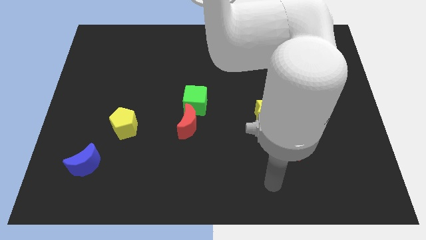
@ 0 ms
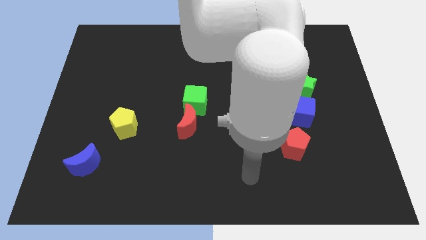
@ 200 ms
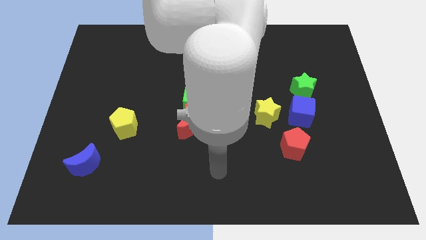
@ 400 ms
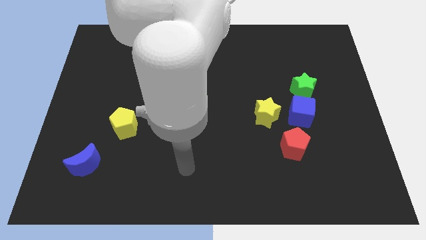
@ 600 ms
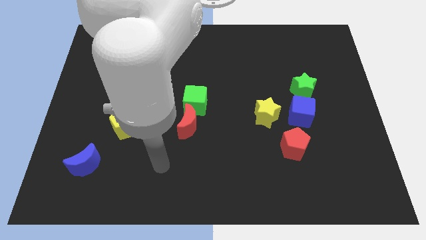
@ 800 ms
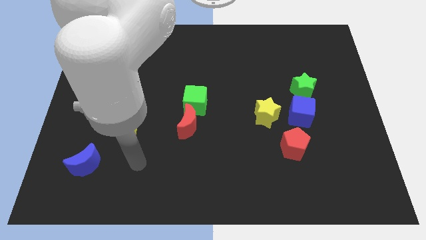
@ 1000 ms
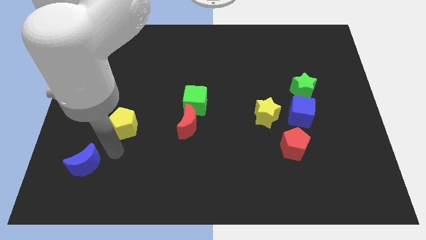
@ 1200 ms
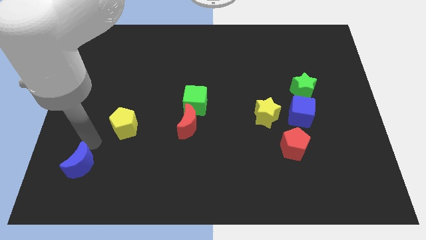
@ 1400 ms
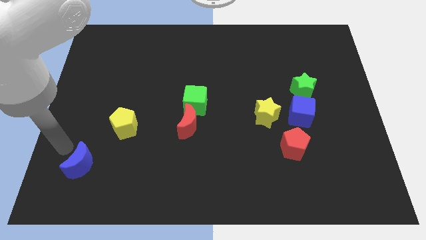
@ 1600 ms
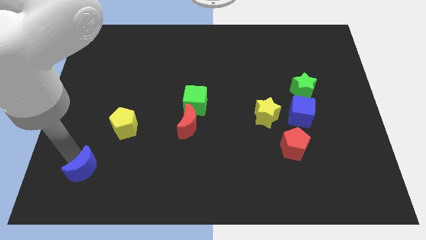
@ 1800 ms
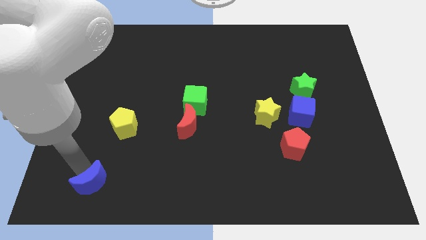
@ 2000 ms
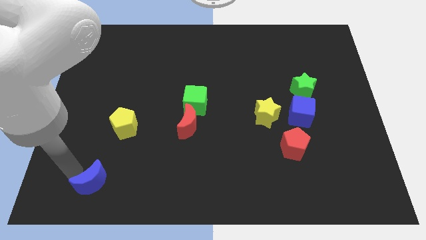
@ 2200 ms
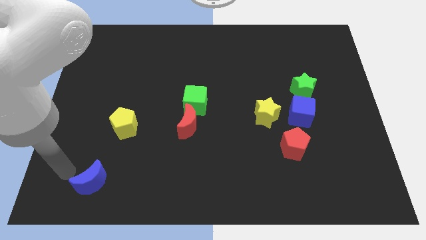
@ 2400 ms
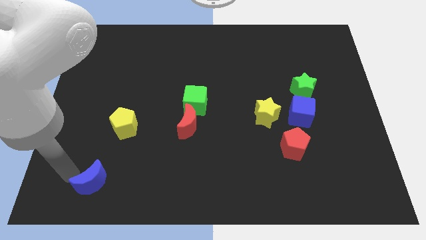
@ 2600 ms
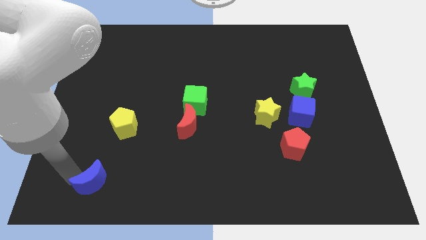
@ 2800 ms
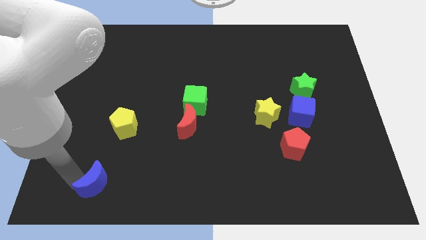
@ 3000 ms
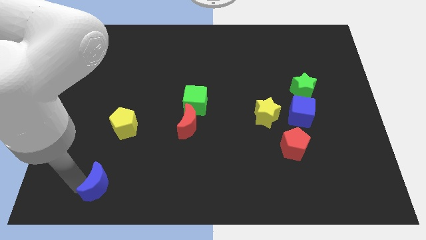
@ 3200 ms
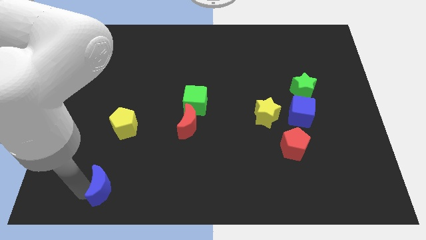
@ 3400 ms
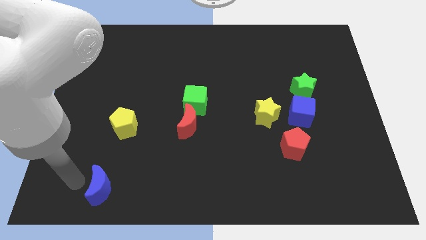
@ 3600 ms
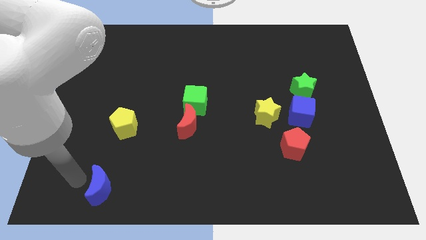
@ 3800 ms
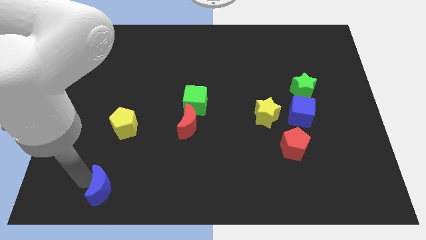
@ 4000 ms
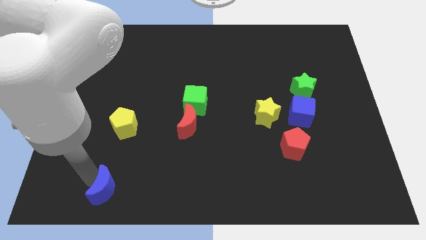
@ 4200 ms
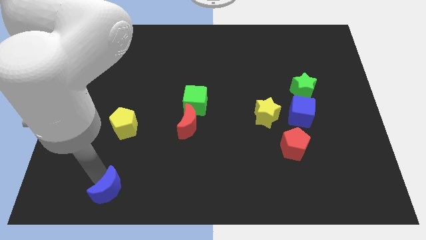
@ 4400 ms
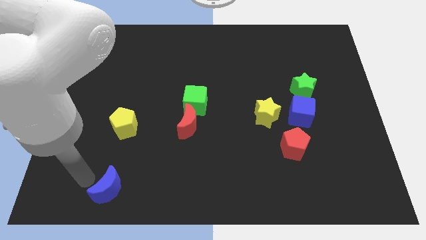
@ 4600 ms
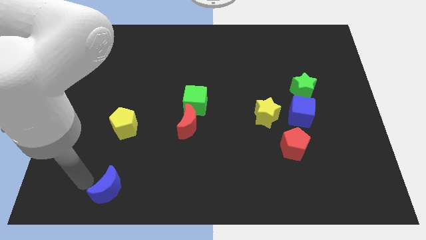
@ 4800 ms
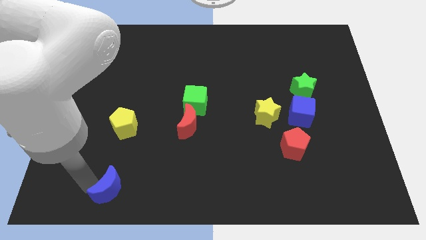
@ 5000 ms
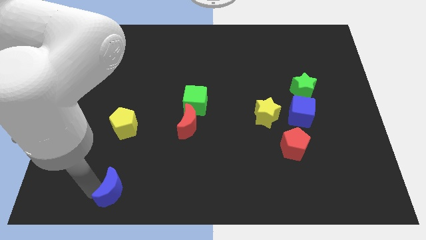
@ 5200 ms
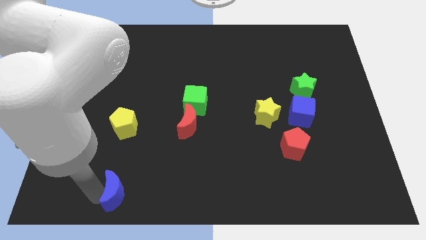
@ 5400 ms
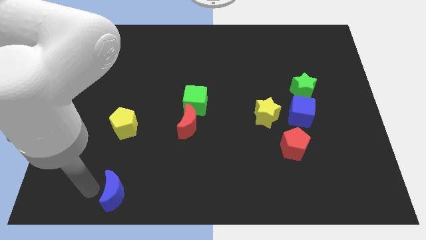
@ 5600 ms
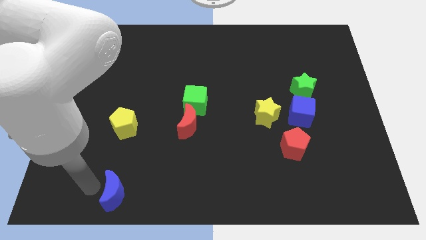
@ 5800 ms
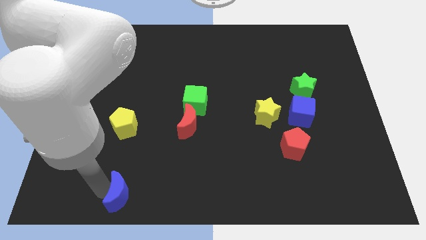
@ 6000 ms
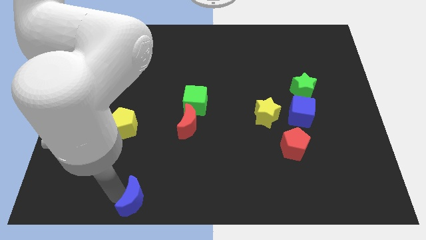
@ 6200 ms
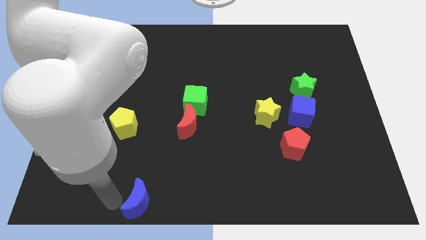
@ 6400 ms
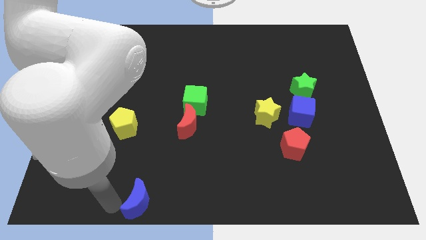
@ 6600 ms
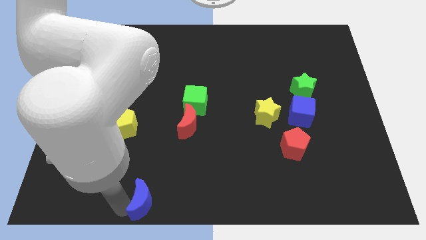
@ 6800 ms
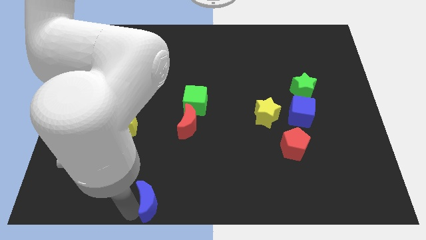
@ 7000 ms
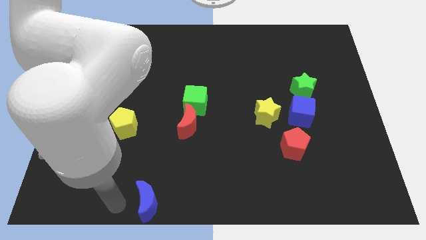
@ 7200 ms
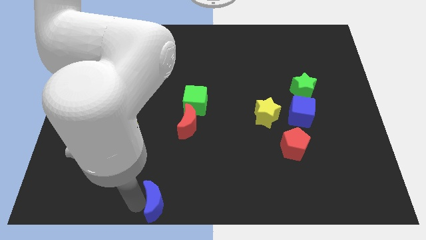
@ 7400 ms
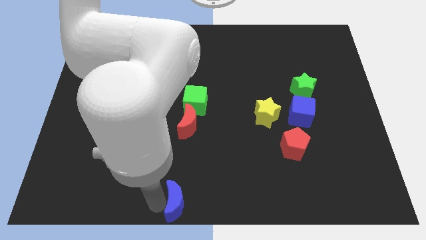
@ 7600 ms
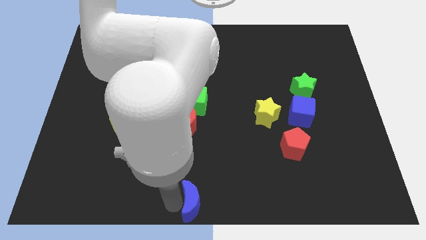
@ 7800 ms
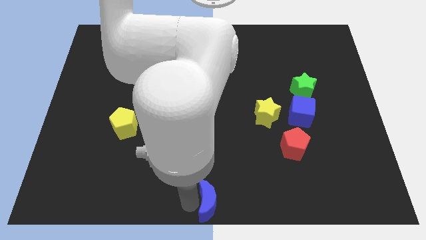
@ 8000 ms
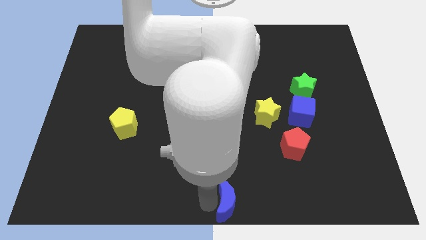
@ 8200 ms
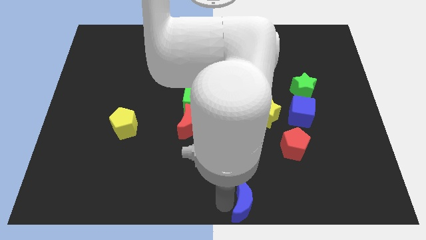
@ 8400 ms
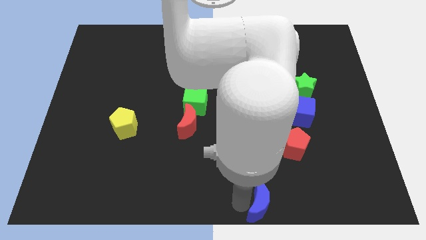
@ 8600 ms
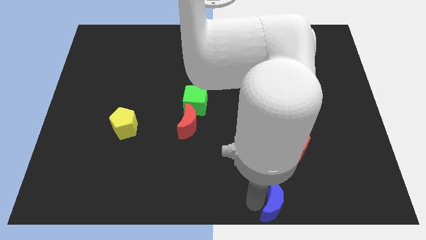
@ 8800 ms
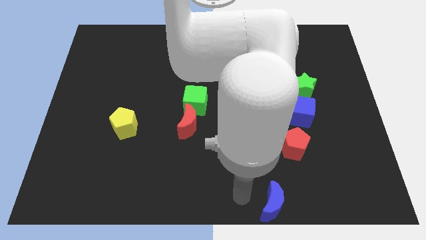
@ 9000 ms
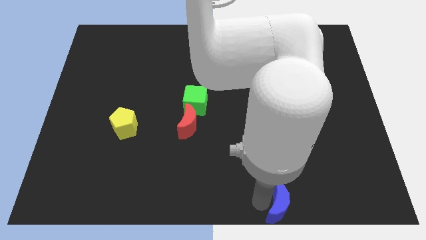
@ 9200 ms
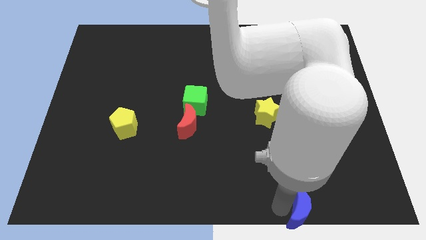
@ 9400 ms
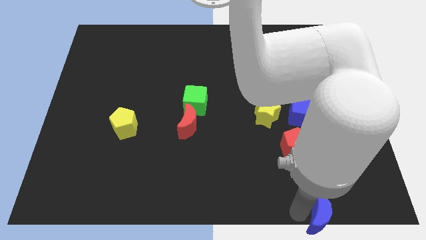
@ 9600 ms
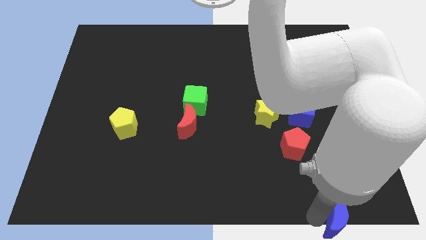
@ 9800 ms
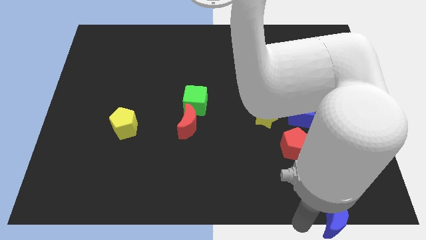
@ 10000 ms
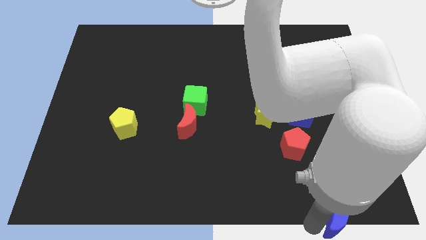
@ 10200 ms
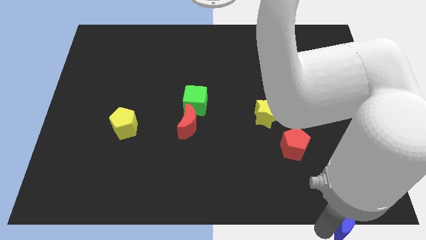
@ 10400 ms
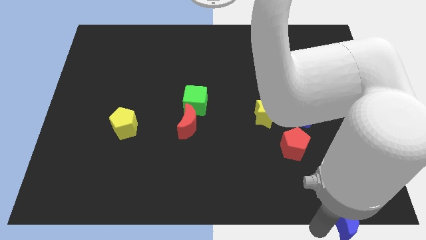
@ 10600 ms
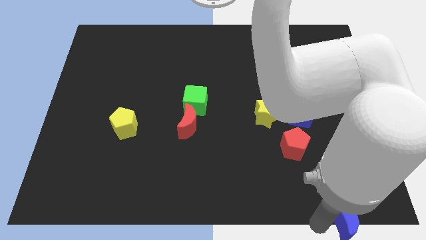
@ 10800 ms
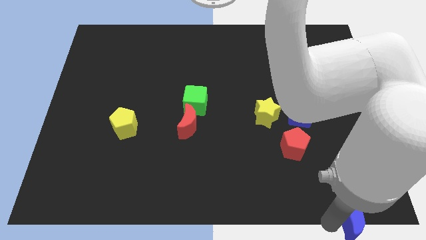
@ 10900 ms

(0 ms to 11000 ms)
move the blue moon to the bottom right corner

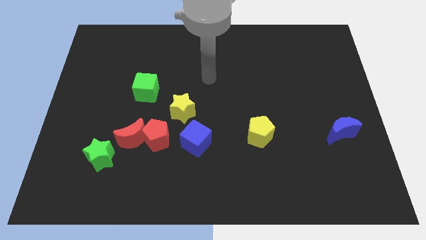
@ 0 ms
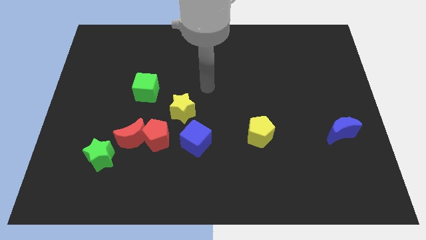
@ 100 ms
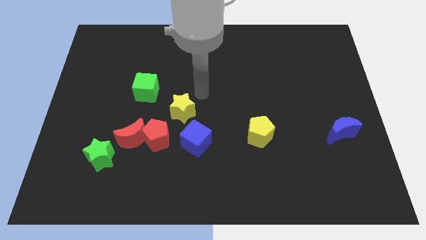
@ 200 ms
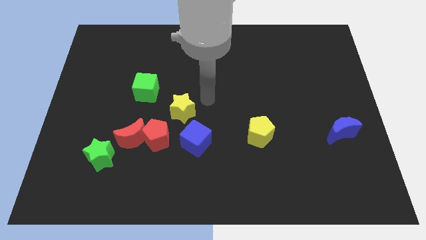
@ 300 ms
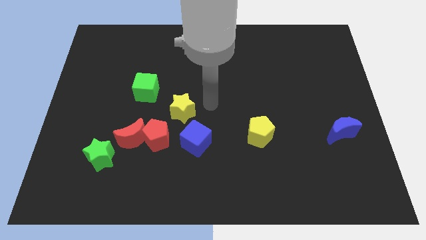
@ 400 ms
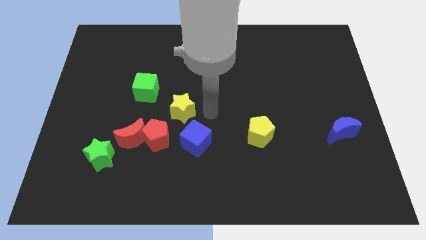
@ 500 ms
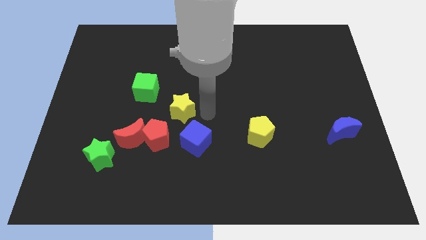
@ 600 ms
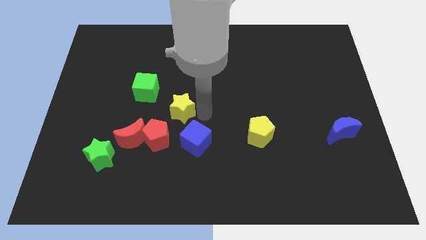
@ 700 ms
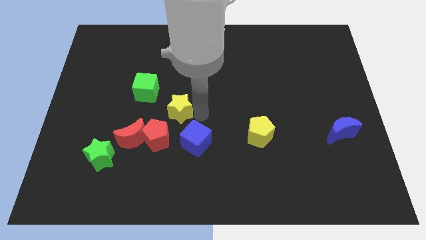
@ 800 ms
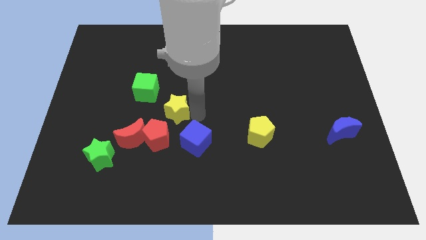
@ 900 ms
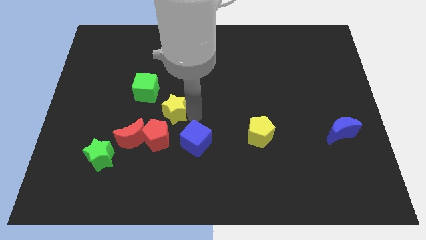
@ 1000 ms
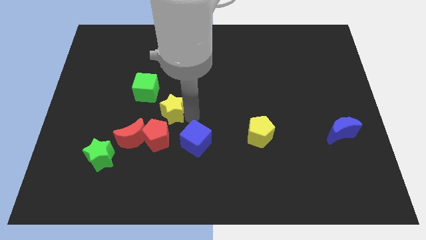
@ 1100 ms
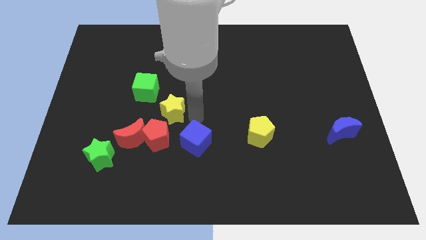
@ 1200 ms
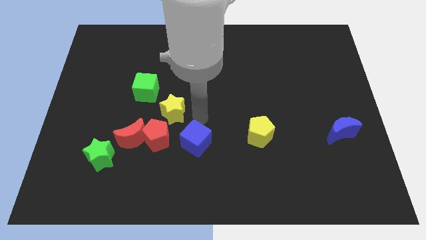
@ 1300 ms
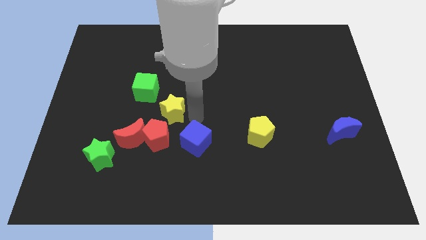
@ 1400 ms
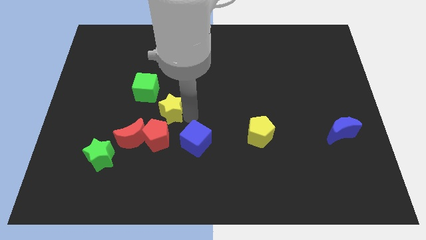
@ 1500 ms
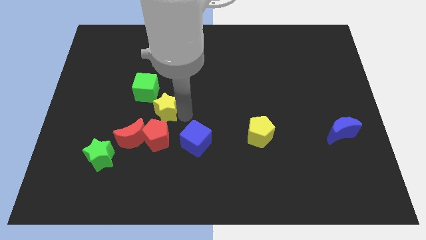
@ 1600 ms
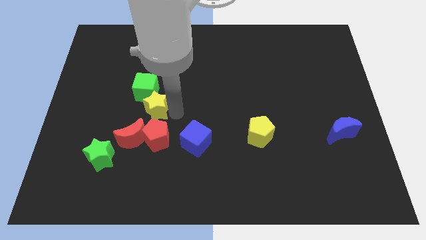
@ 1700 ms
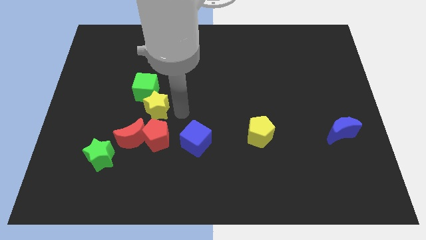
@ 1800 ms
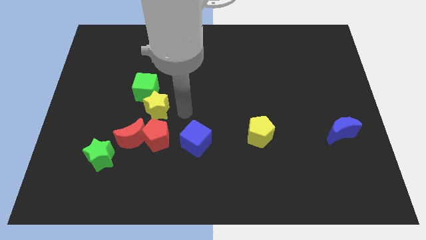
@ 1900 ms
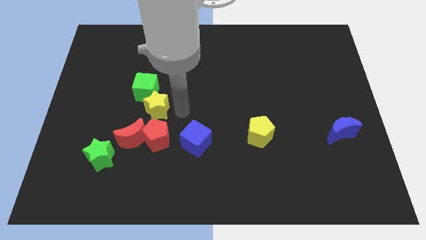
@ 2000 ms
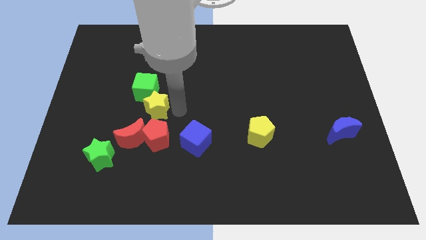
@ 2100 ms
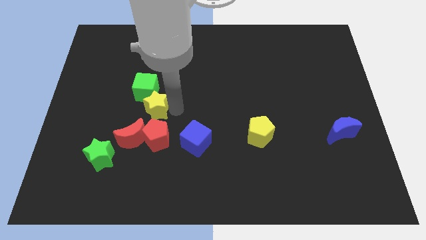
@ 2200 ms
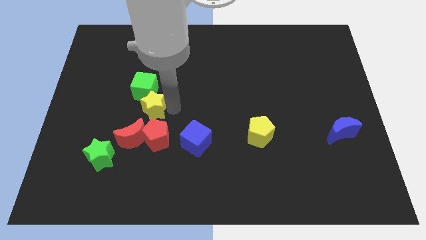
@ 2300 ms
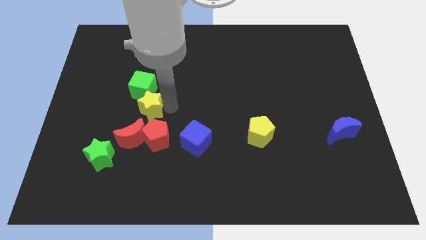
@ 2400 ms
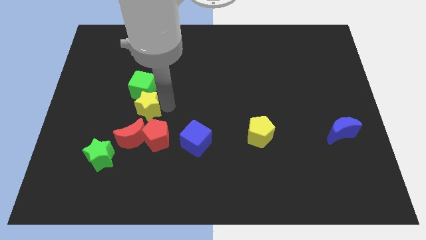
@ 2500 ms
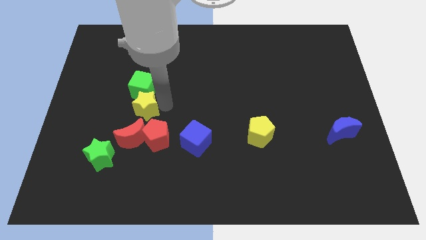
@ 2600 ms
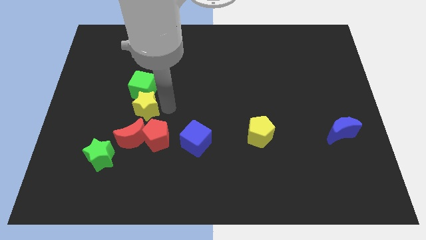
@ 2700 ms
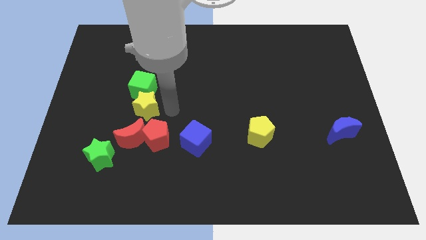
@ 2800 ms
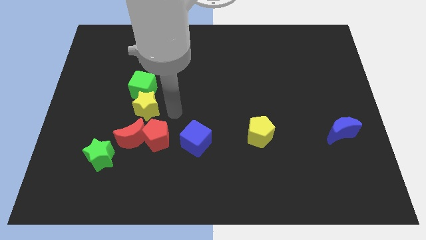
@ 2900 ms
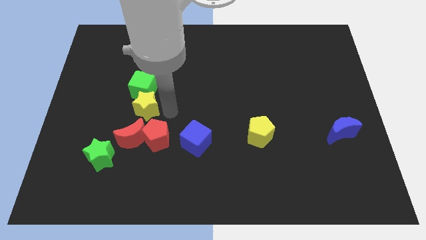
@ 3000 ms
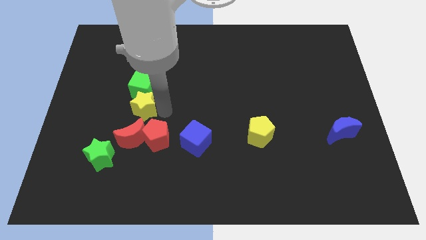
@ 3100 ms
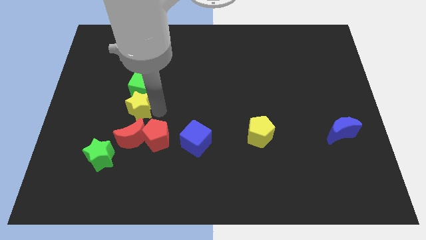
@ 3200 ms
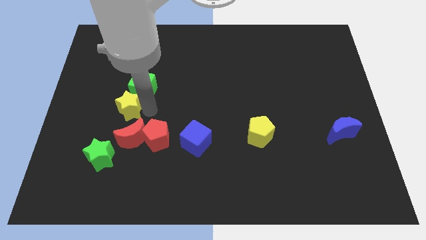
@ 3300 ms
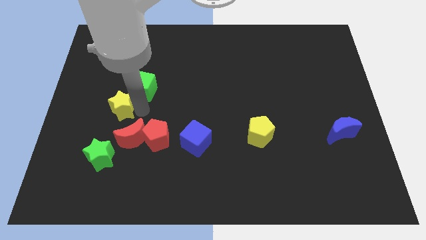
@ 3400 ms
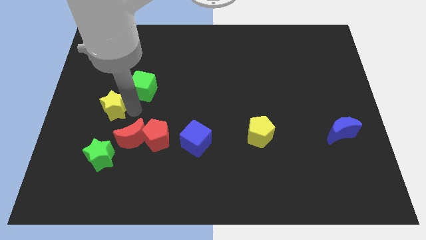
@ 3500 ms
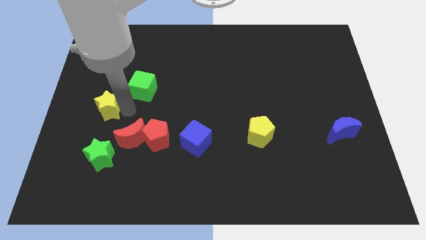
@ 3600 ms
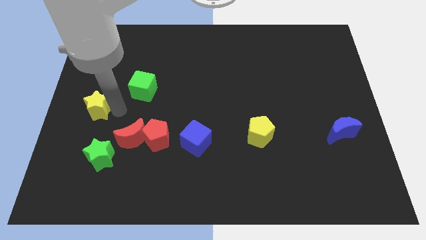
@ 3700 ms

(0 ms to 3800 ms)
slide the yellow star to the left side
